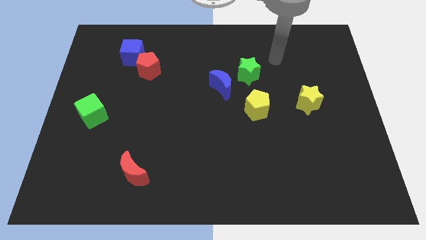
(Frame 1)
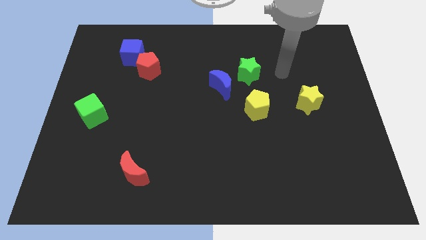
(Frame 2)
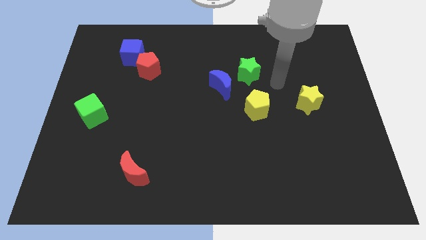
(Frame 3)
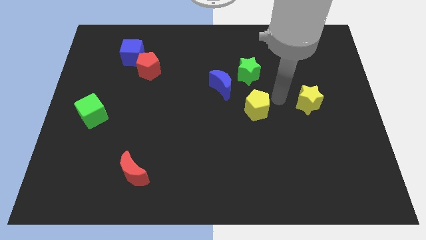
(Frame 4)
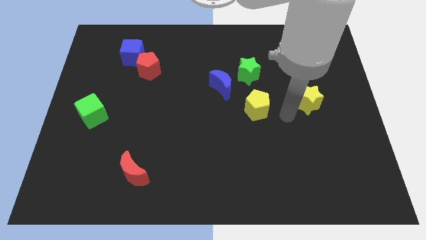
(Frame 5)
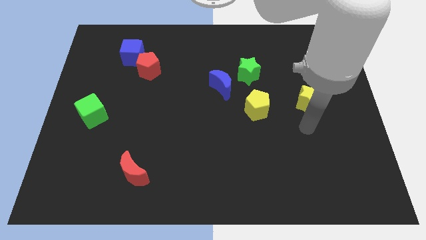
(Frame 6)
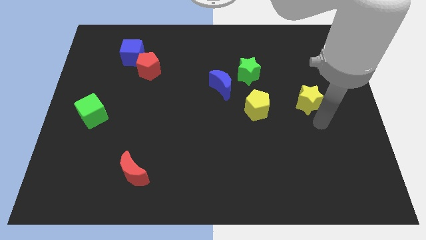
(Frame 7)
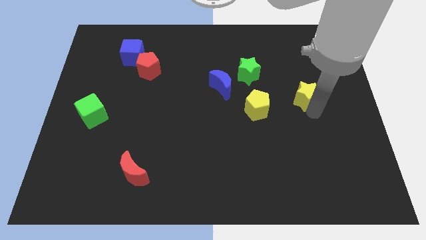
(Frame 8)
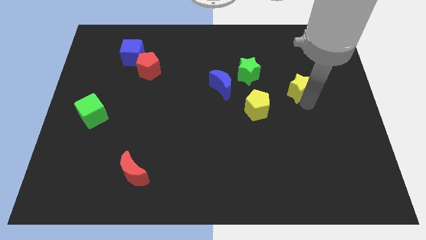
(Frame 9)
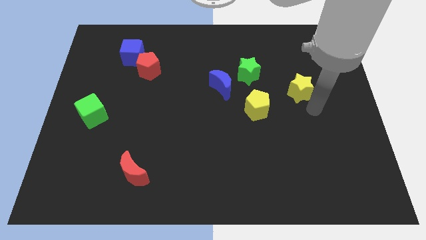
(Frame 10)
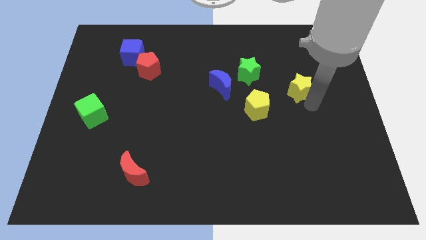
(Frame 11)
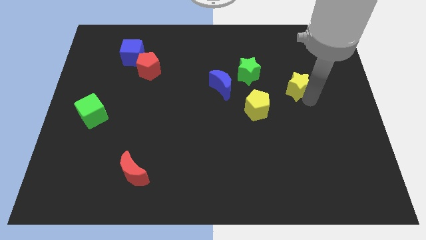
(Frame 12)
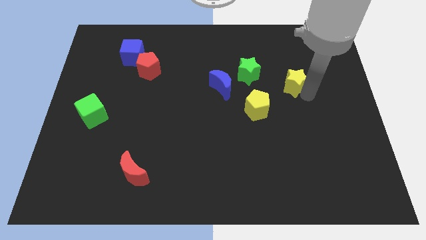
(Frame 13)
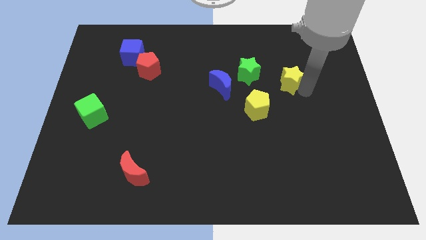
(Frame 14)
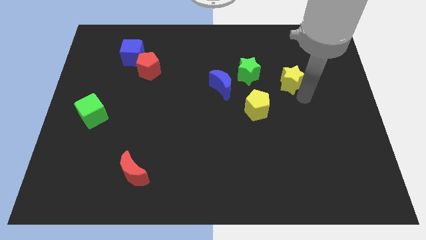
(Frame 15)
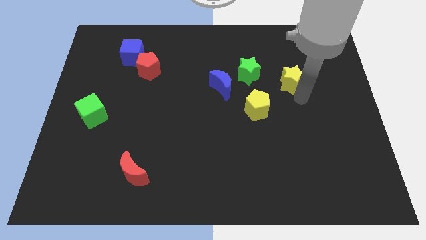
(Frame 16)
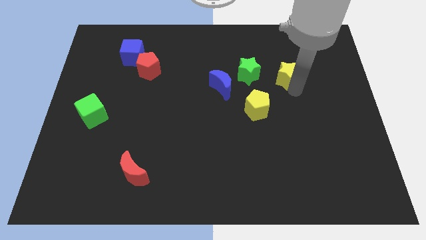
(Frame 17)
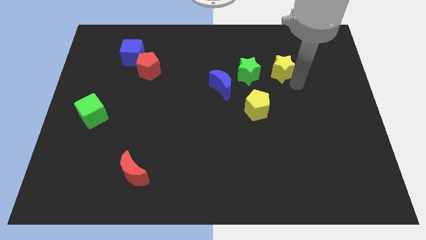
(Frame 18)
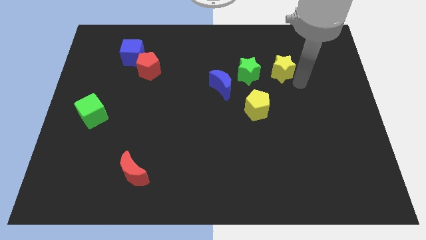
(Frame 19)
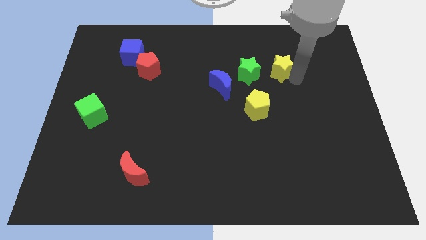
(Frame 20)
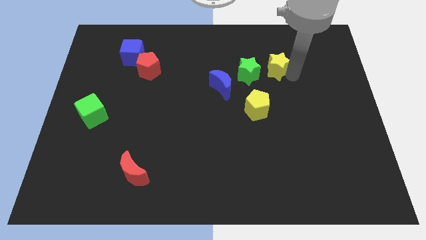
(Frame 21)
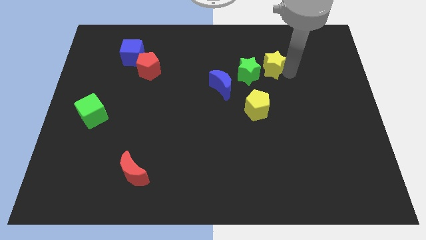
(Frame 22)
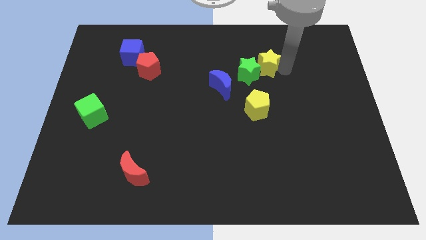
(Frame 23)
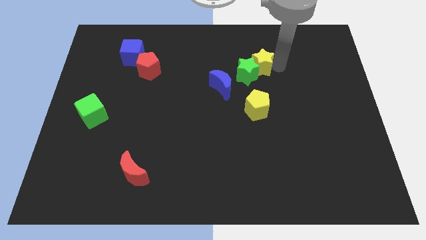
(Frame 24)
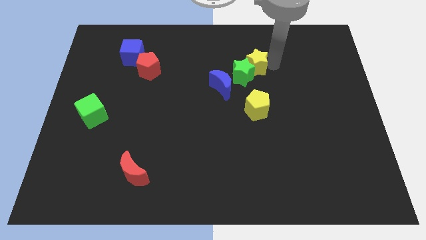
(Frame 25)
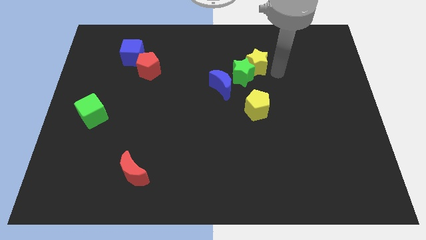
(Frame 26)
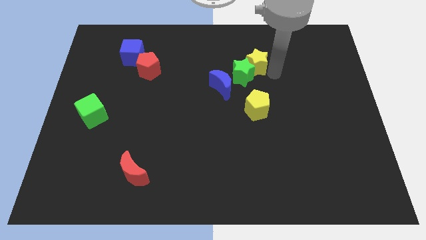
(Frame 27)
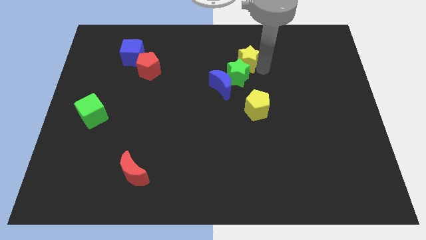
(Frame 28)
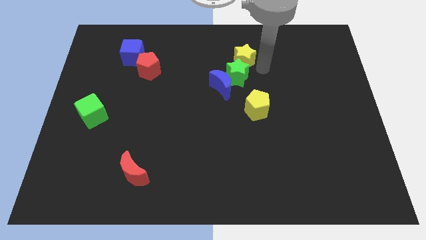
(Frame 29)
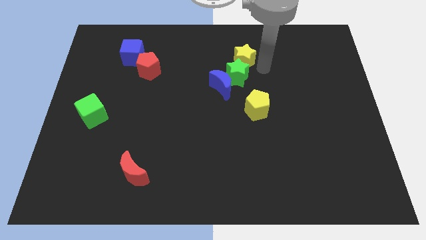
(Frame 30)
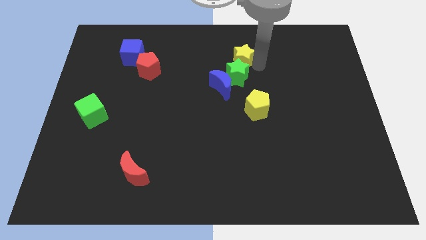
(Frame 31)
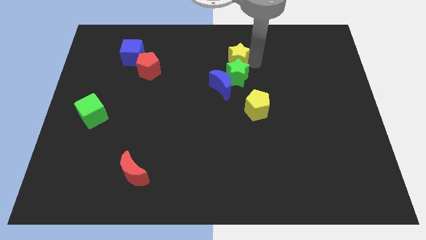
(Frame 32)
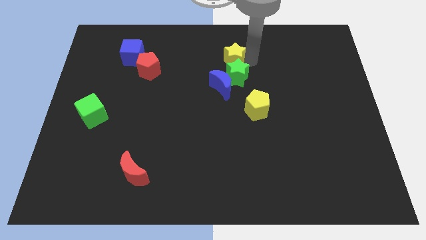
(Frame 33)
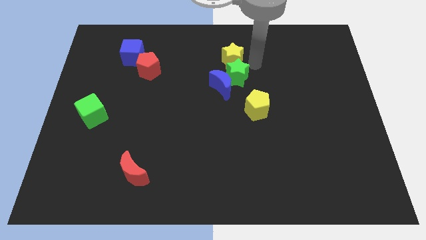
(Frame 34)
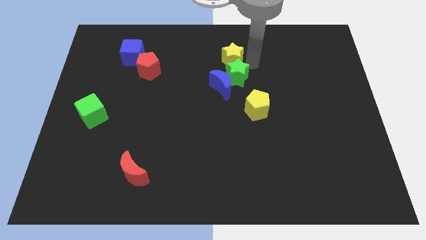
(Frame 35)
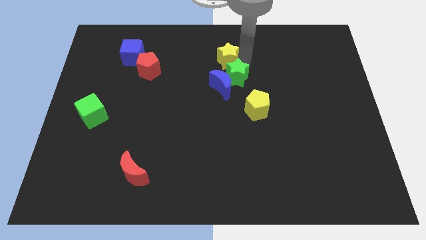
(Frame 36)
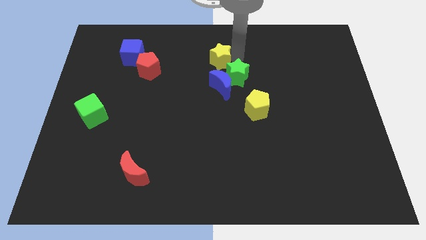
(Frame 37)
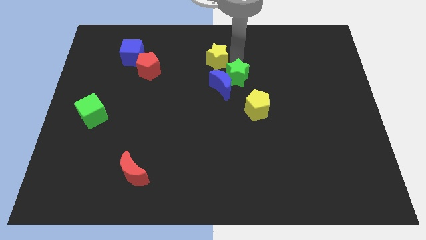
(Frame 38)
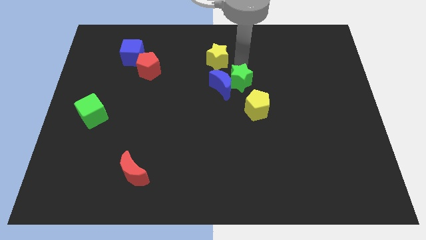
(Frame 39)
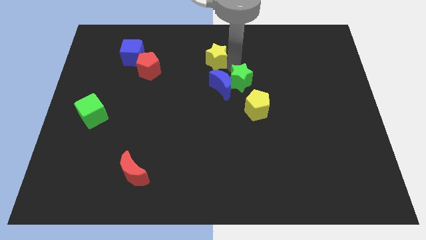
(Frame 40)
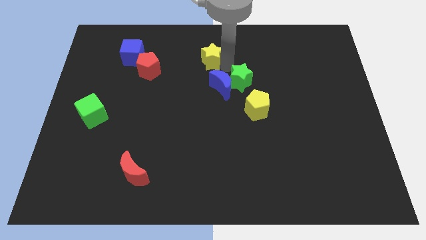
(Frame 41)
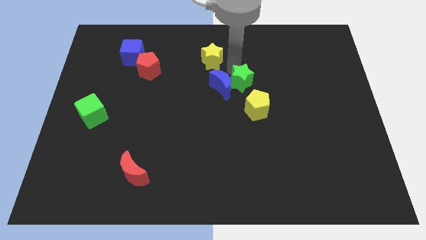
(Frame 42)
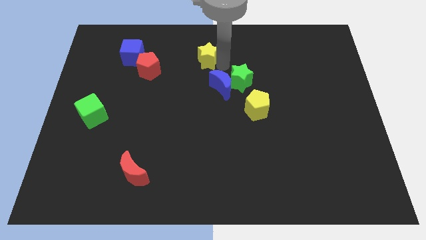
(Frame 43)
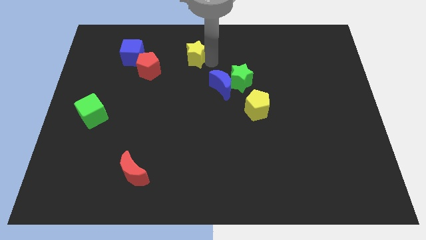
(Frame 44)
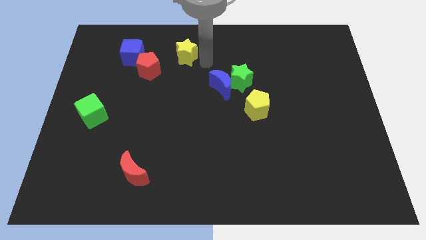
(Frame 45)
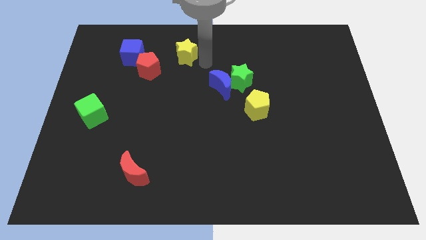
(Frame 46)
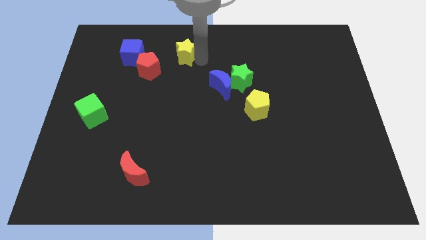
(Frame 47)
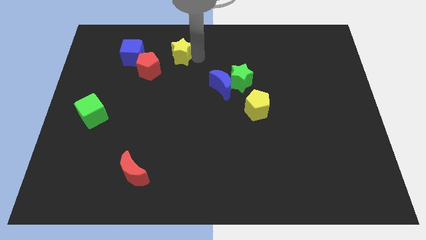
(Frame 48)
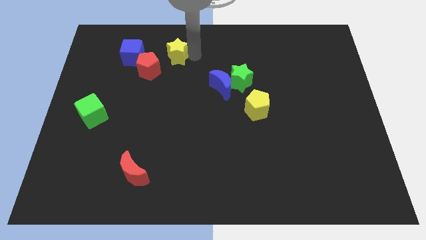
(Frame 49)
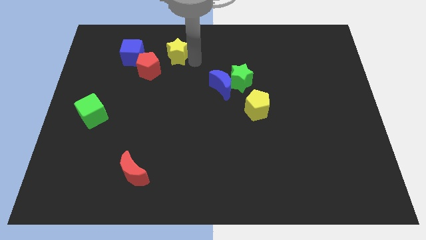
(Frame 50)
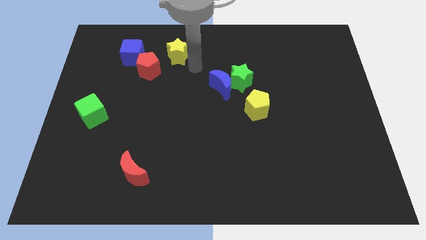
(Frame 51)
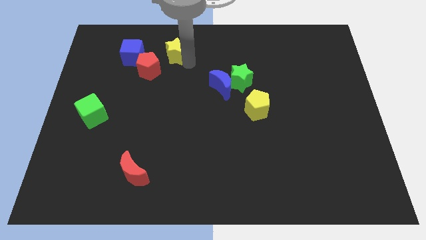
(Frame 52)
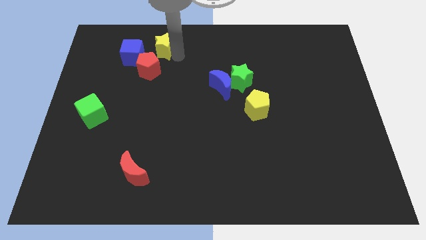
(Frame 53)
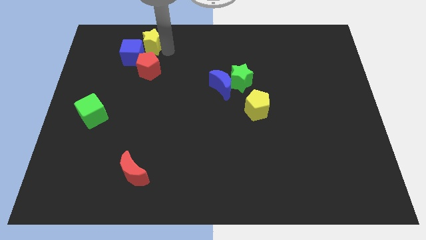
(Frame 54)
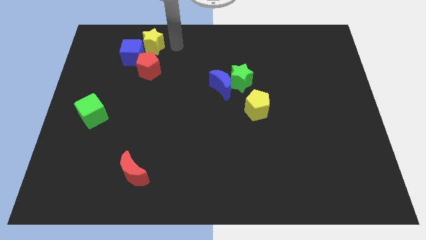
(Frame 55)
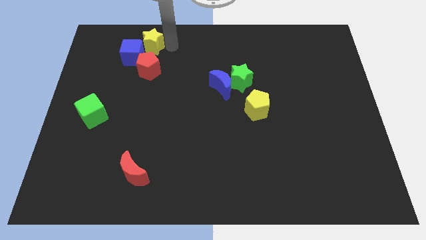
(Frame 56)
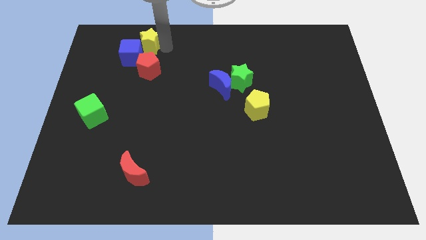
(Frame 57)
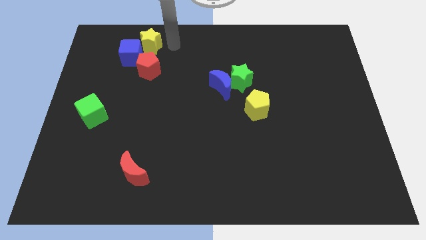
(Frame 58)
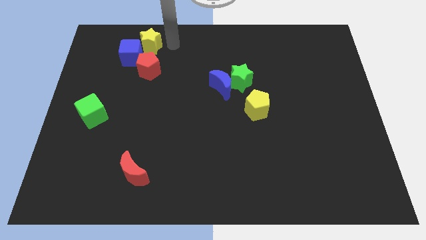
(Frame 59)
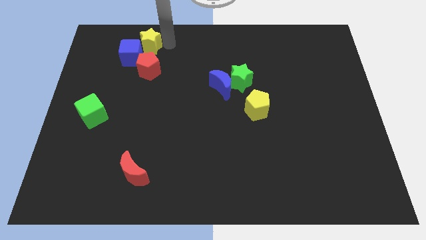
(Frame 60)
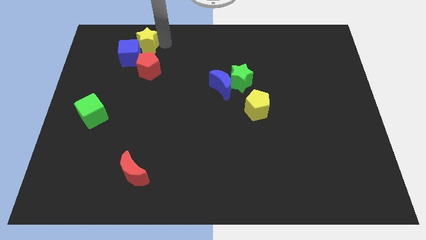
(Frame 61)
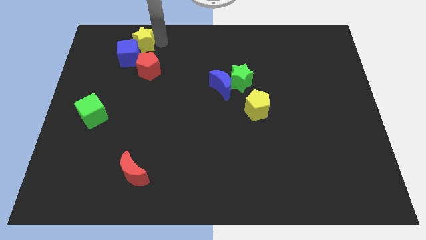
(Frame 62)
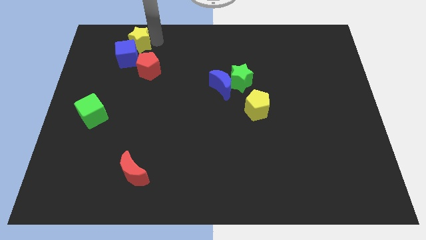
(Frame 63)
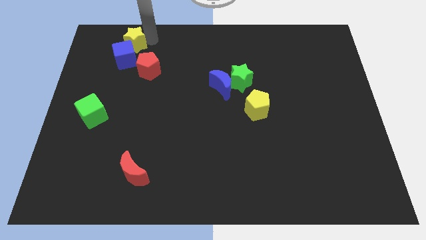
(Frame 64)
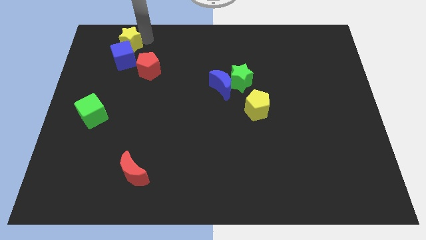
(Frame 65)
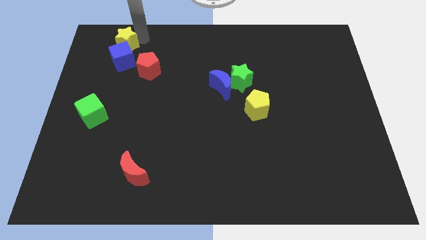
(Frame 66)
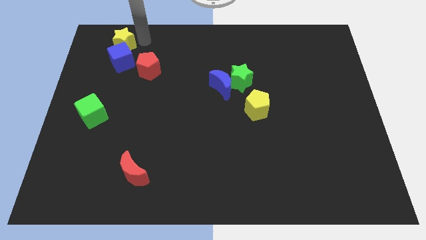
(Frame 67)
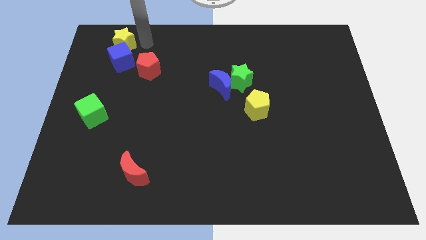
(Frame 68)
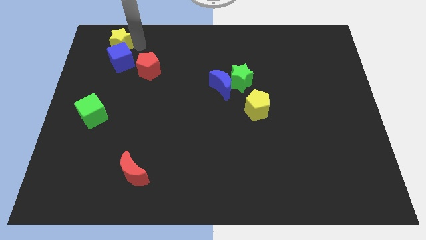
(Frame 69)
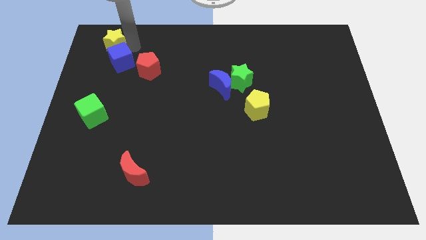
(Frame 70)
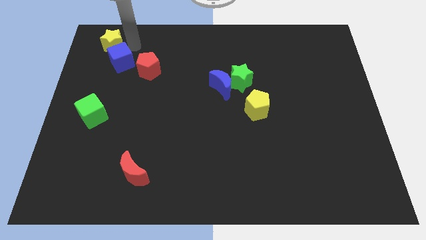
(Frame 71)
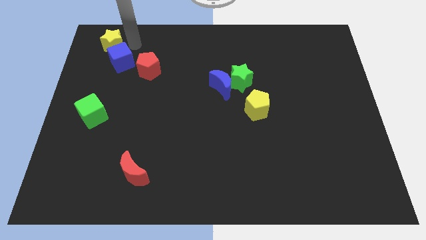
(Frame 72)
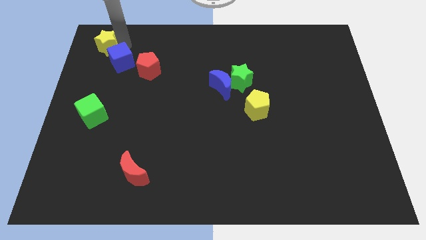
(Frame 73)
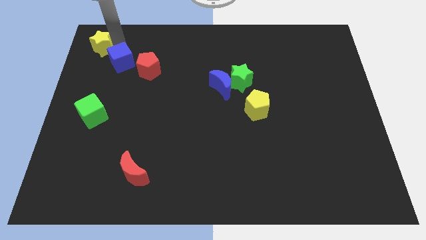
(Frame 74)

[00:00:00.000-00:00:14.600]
put the yellow star to the upper left corner
